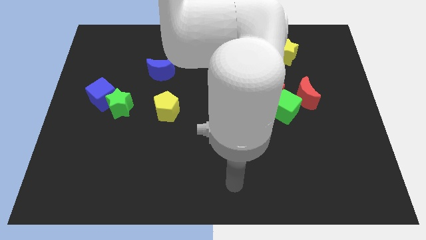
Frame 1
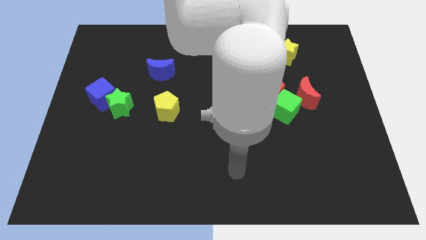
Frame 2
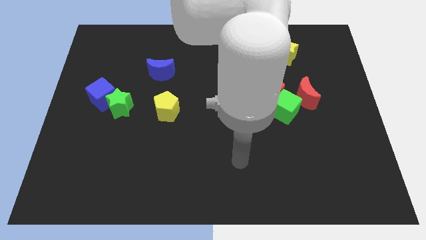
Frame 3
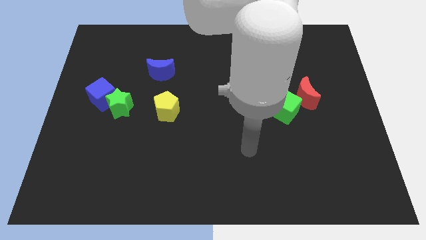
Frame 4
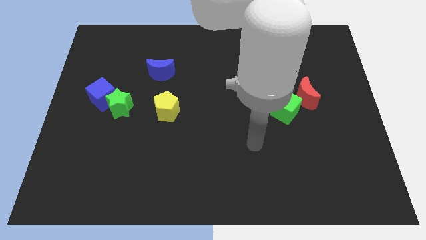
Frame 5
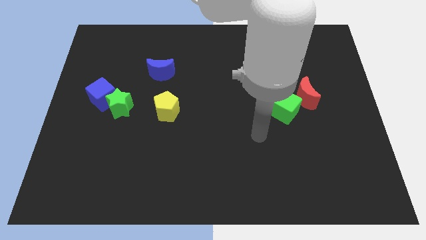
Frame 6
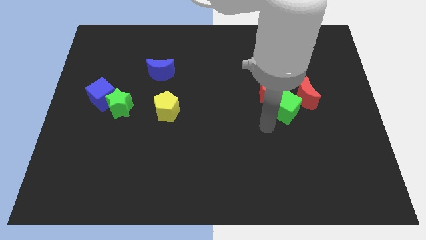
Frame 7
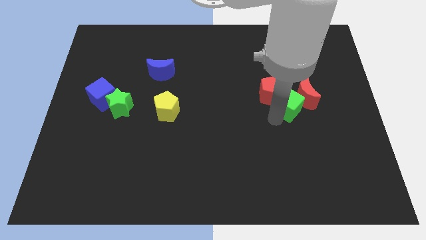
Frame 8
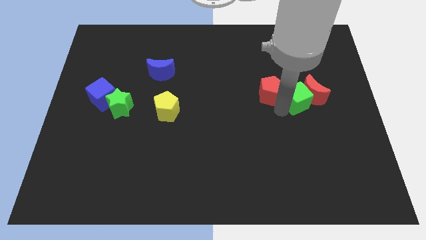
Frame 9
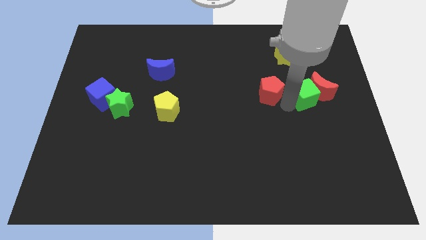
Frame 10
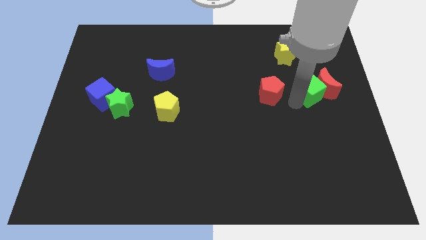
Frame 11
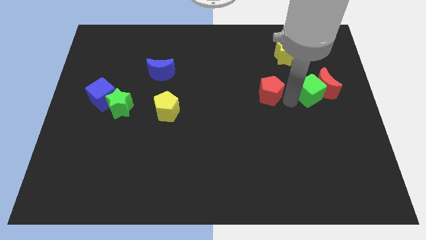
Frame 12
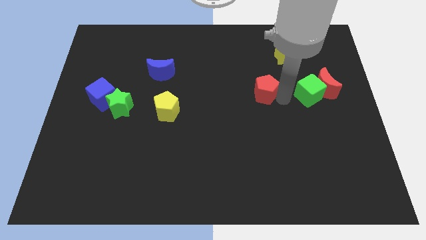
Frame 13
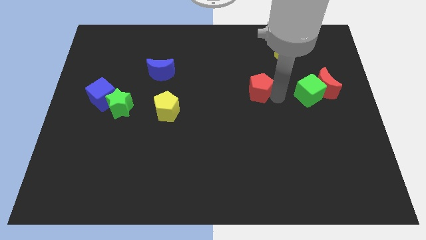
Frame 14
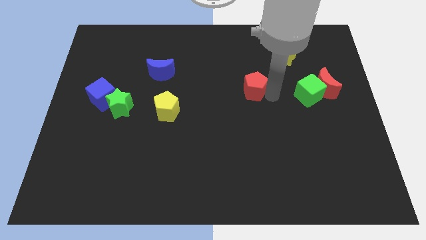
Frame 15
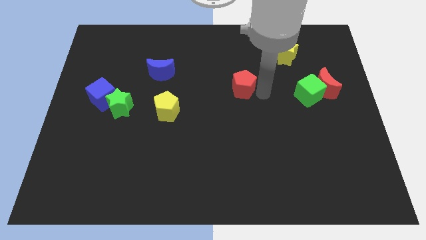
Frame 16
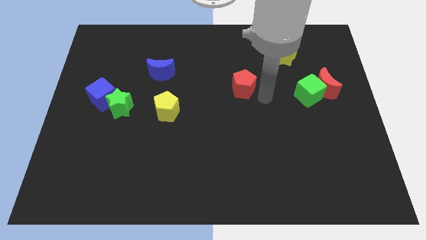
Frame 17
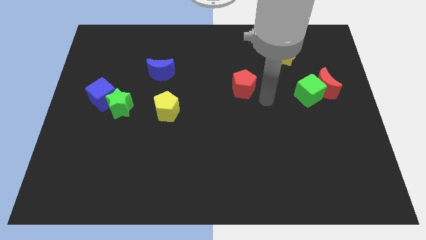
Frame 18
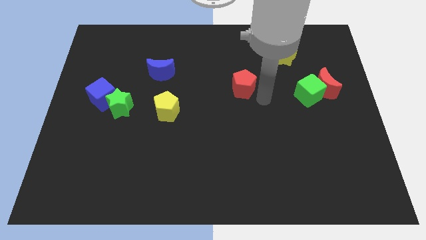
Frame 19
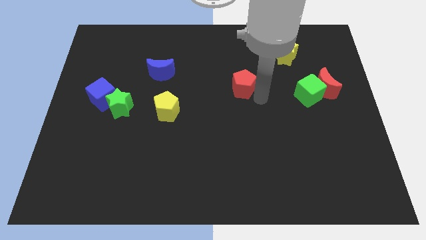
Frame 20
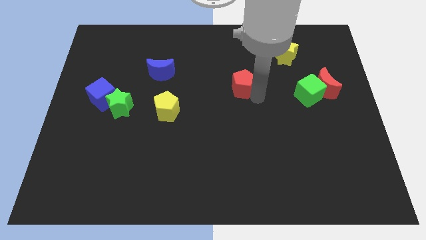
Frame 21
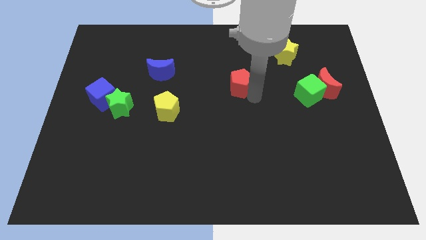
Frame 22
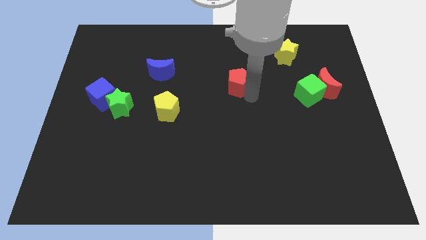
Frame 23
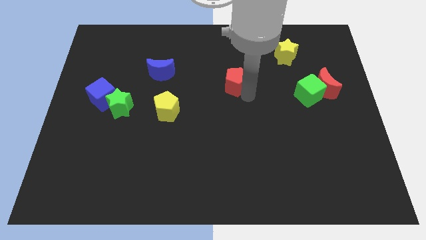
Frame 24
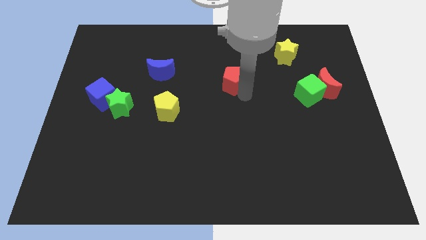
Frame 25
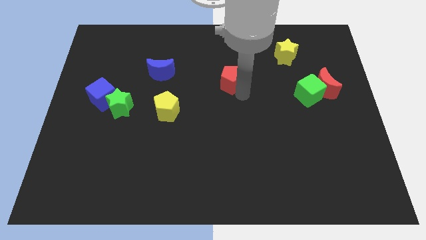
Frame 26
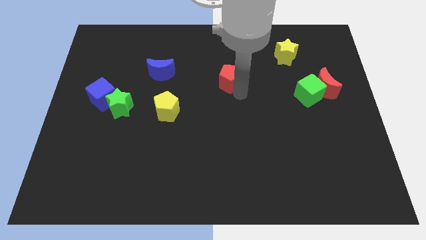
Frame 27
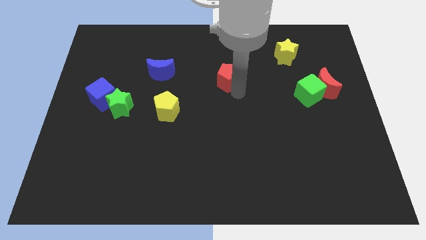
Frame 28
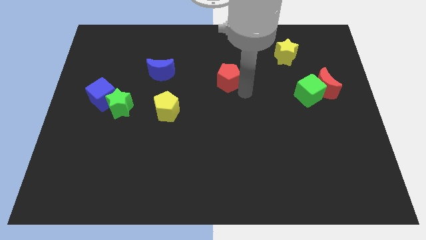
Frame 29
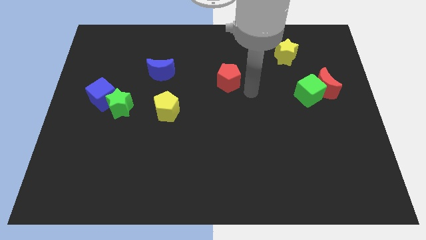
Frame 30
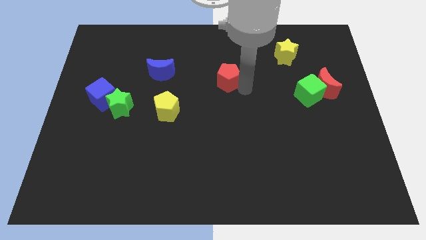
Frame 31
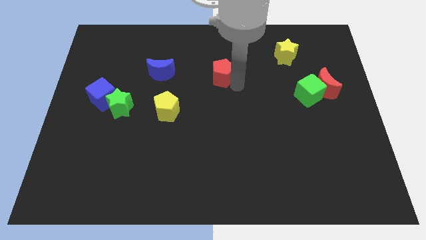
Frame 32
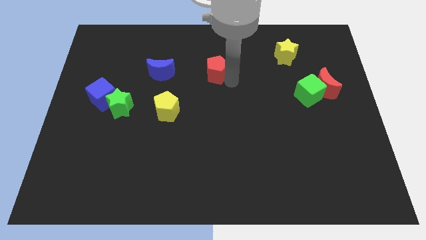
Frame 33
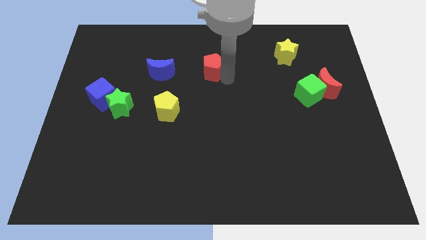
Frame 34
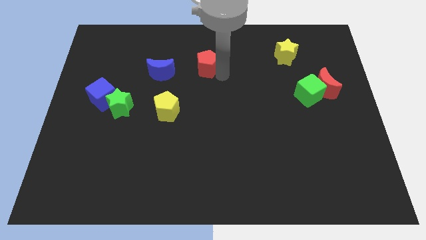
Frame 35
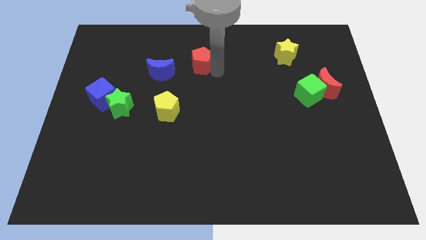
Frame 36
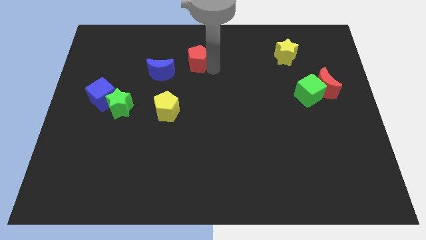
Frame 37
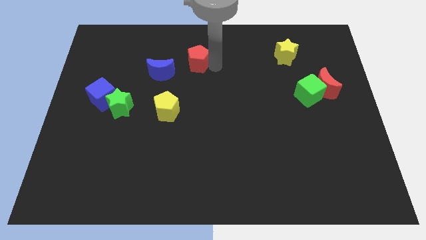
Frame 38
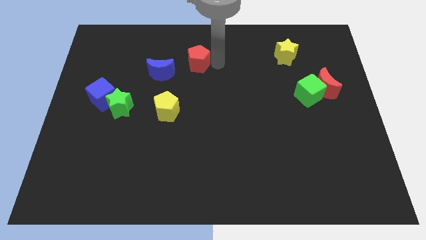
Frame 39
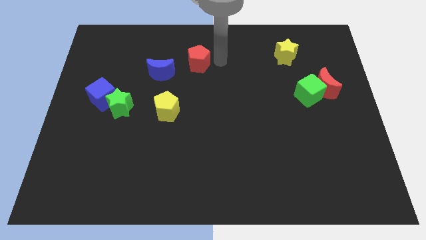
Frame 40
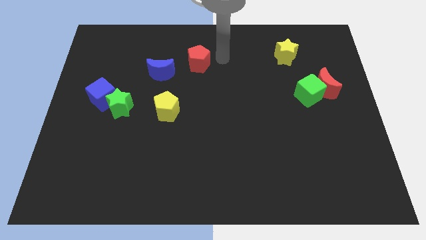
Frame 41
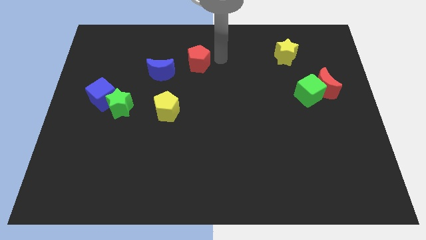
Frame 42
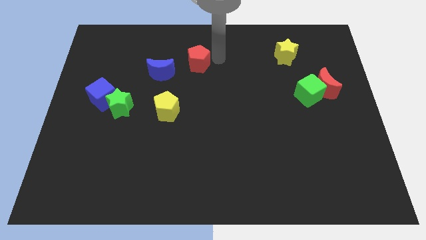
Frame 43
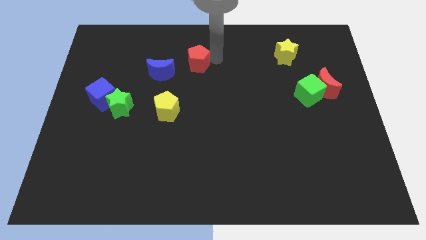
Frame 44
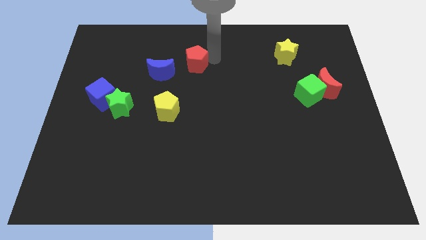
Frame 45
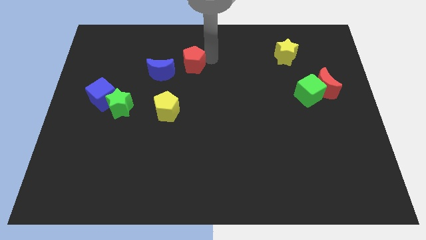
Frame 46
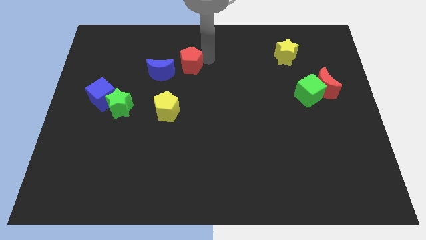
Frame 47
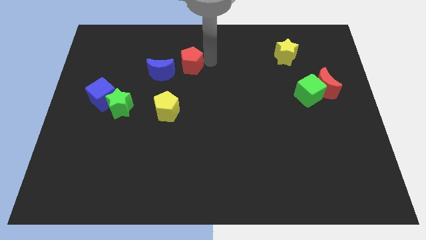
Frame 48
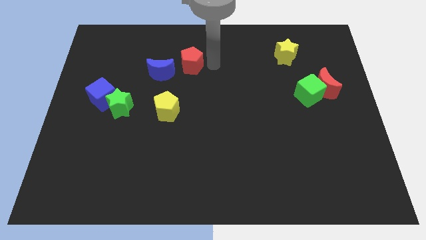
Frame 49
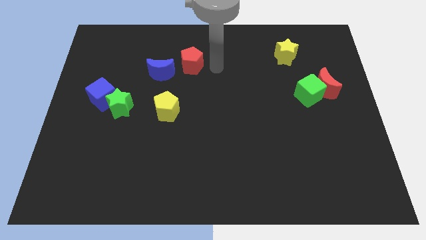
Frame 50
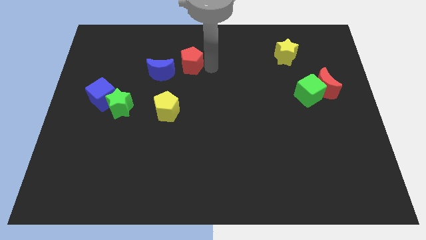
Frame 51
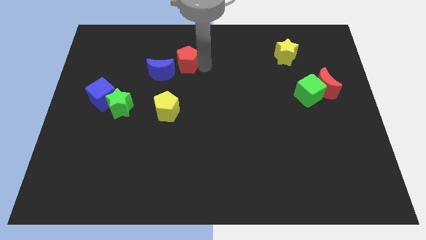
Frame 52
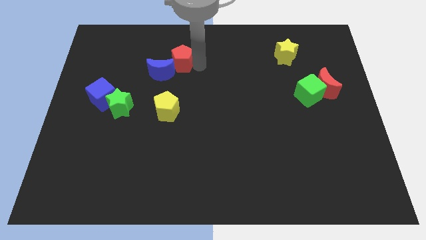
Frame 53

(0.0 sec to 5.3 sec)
slide the red pentagon to the top of the yellow pentagon

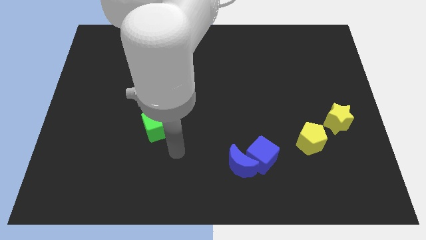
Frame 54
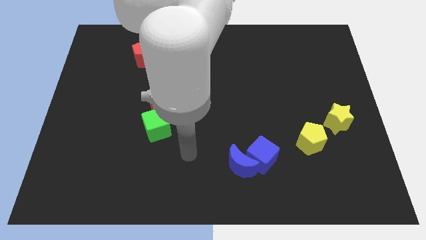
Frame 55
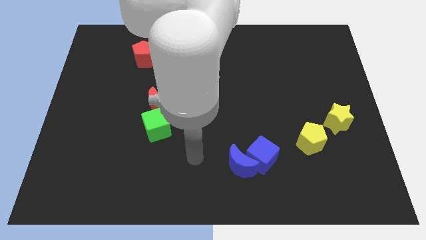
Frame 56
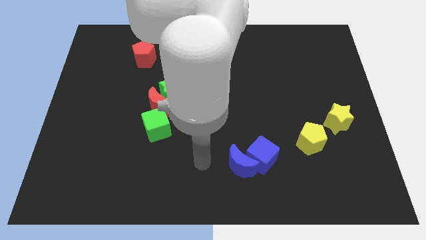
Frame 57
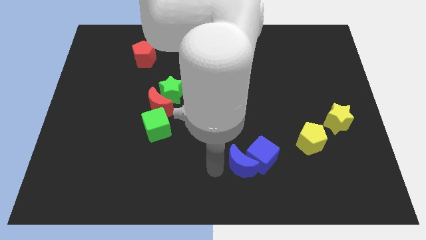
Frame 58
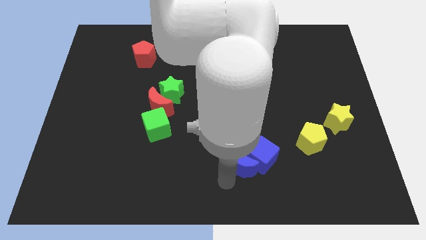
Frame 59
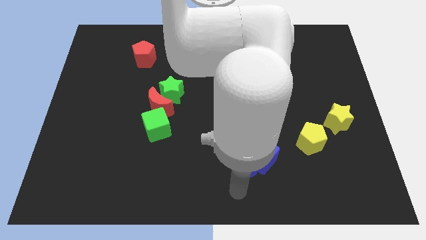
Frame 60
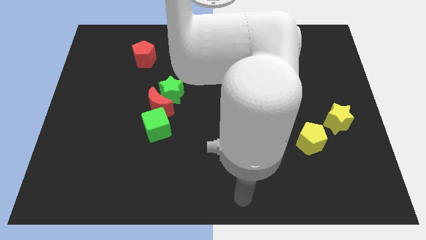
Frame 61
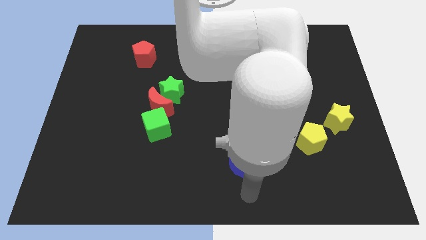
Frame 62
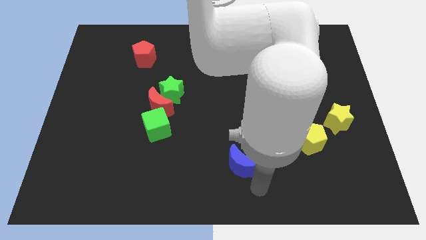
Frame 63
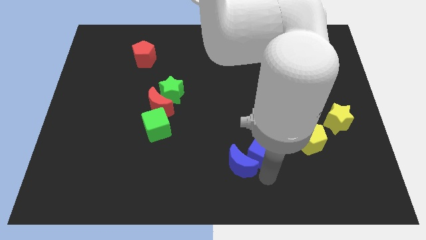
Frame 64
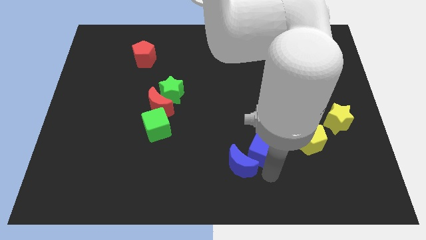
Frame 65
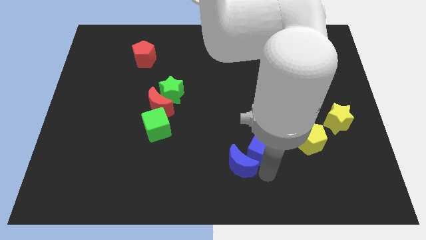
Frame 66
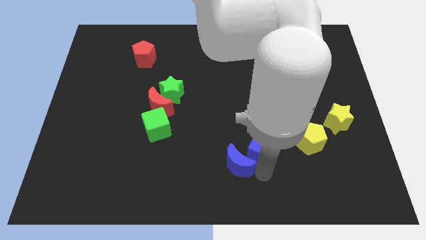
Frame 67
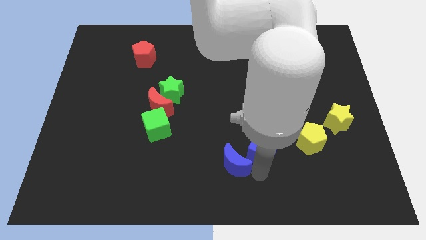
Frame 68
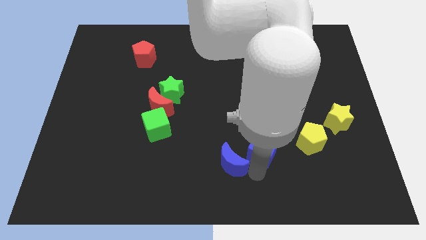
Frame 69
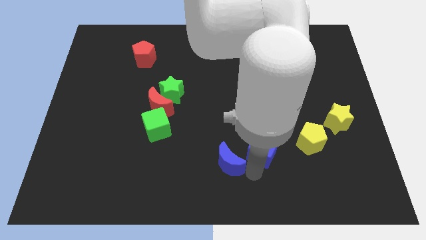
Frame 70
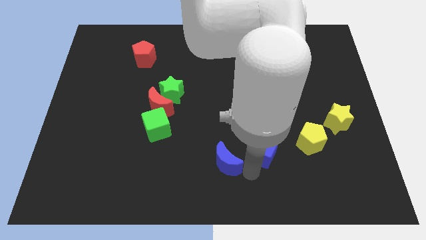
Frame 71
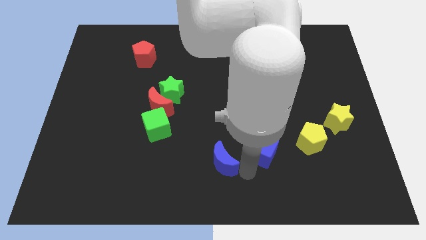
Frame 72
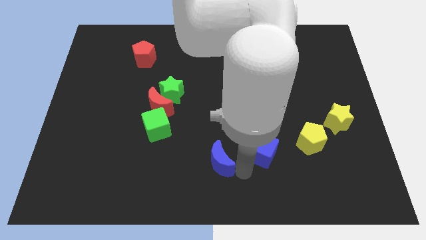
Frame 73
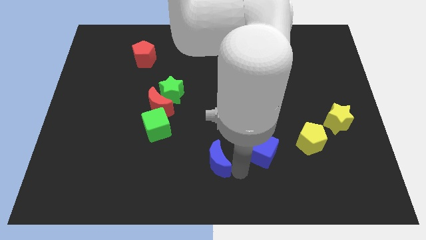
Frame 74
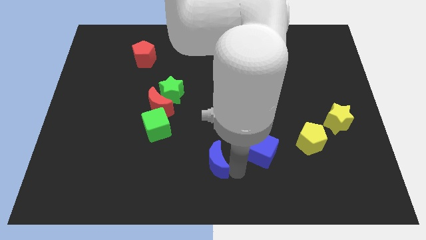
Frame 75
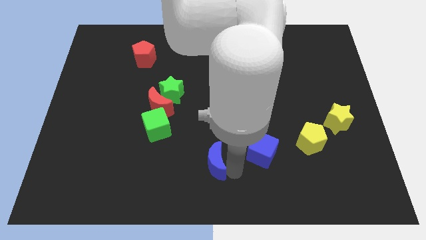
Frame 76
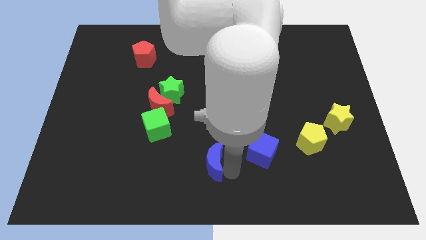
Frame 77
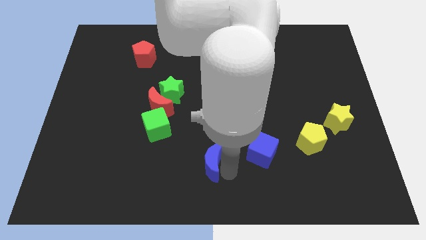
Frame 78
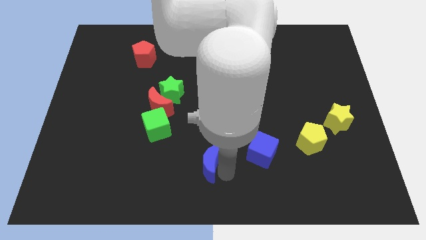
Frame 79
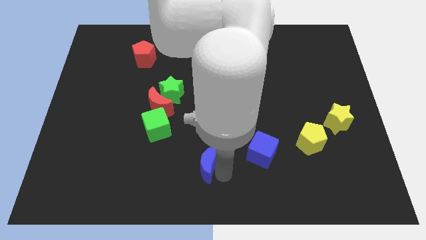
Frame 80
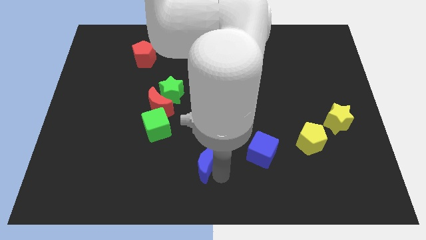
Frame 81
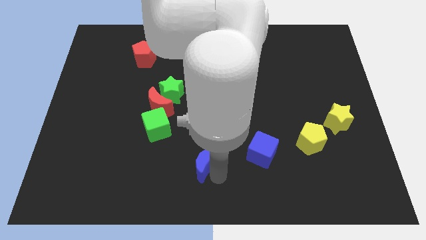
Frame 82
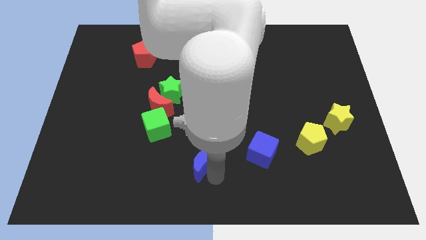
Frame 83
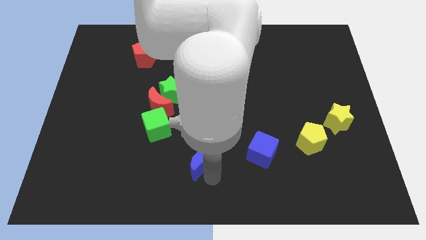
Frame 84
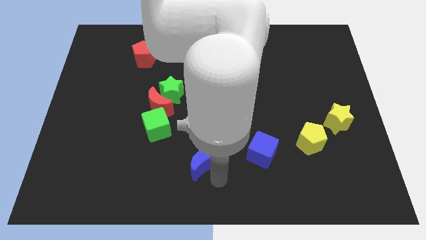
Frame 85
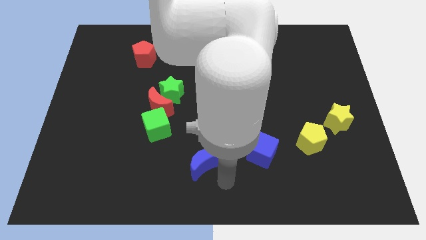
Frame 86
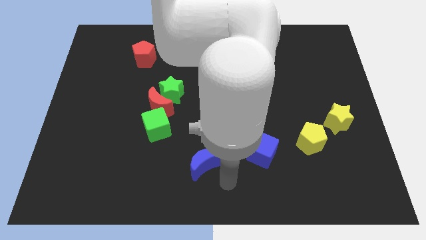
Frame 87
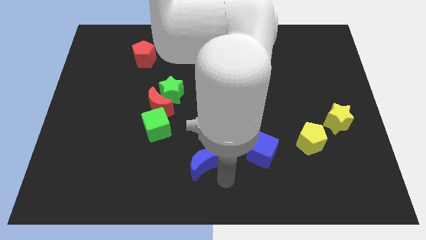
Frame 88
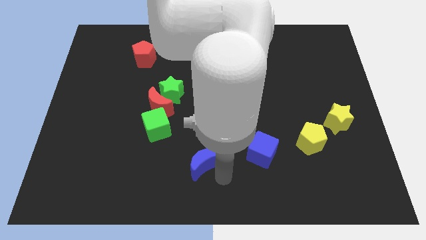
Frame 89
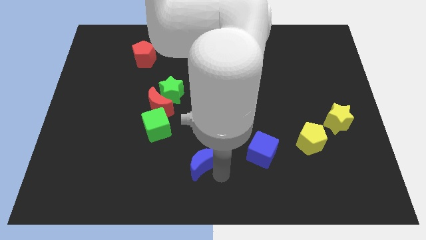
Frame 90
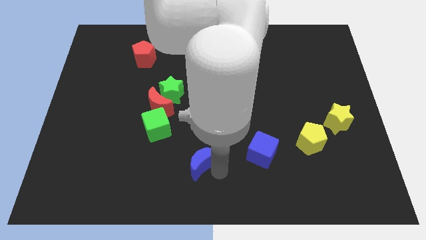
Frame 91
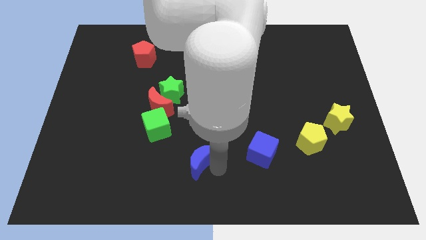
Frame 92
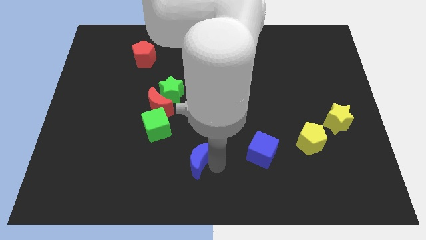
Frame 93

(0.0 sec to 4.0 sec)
put the blue moon diagonally down and to the right of the green cube
